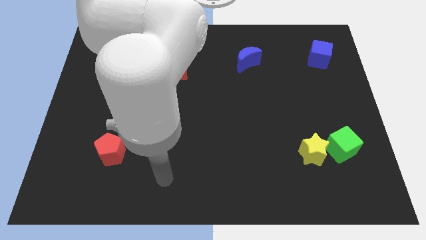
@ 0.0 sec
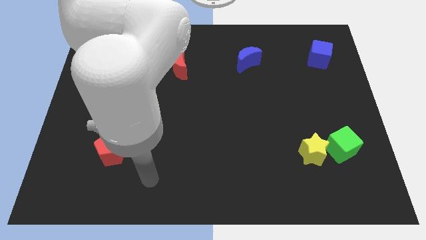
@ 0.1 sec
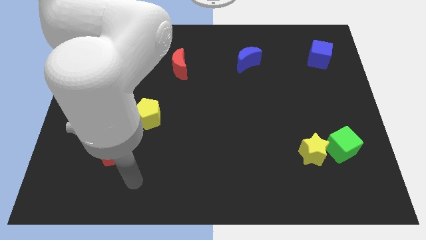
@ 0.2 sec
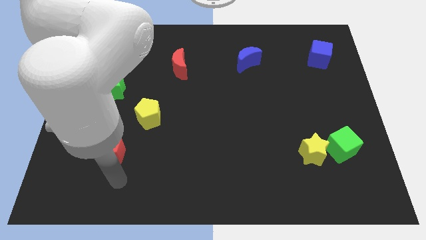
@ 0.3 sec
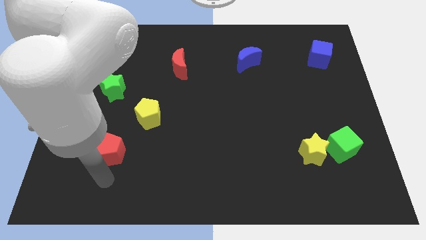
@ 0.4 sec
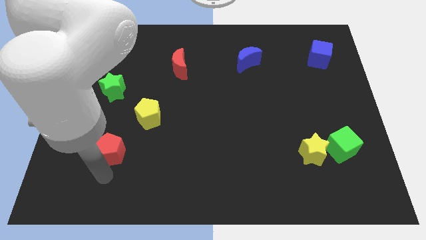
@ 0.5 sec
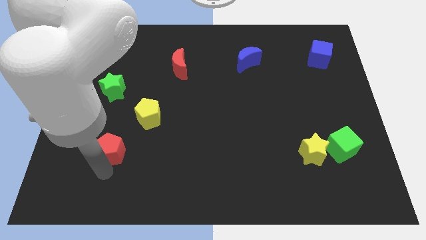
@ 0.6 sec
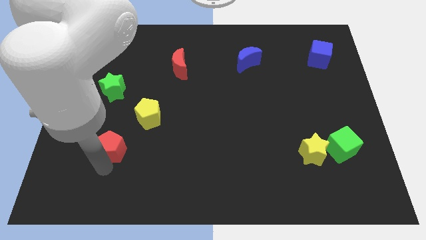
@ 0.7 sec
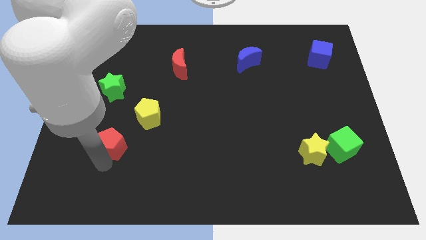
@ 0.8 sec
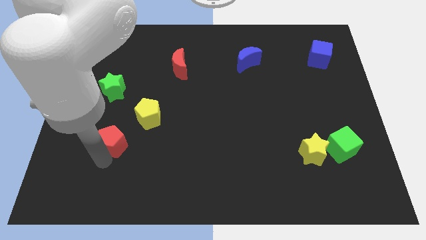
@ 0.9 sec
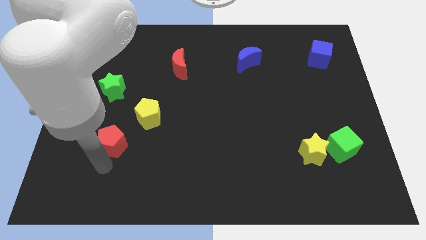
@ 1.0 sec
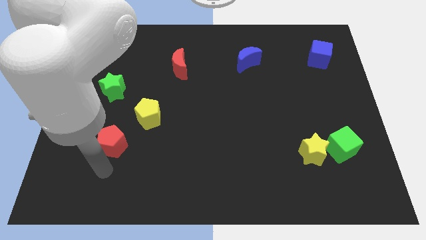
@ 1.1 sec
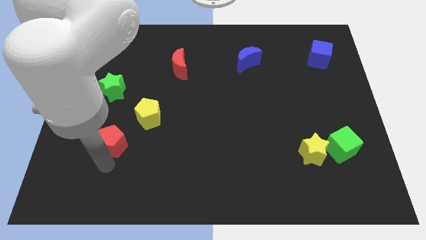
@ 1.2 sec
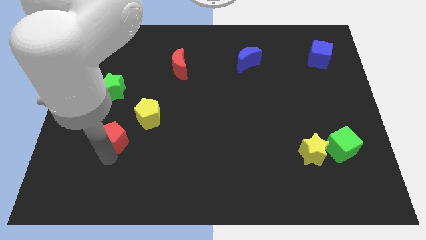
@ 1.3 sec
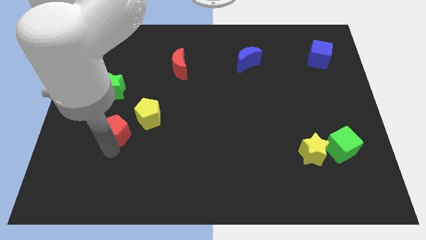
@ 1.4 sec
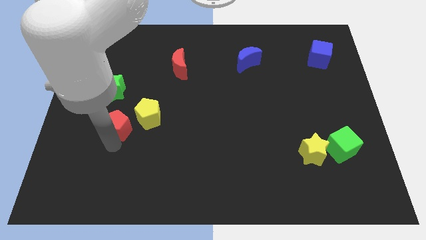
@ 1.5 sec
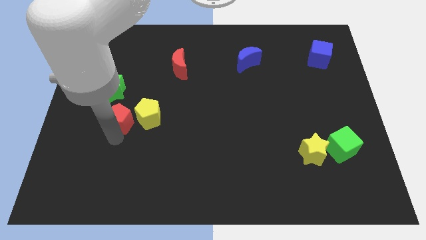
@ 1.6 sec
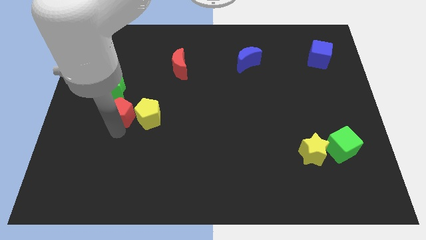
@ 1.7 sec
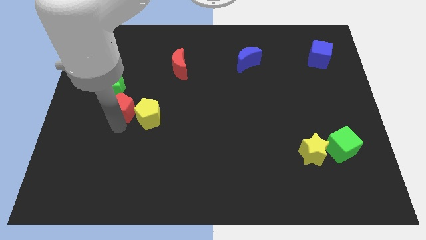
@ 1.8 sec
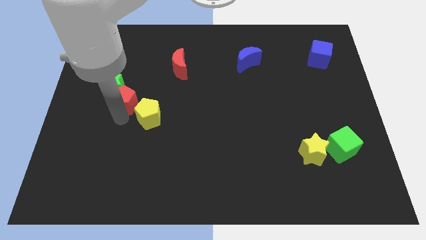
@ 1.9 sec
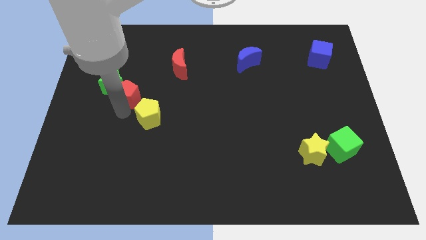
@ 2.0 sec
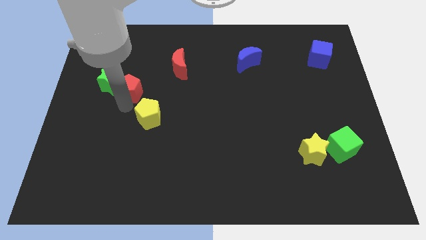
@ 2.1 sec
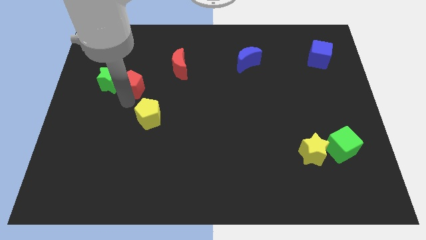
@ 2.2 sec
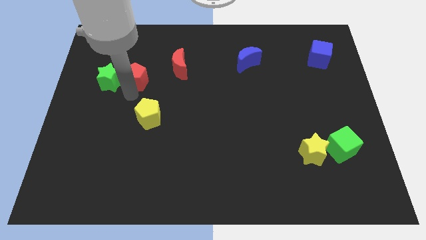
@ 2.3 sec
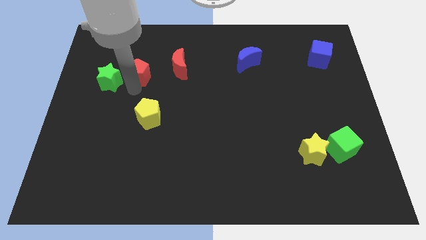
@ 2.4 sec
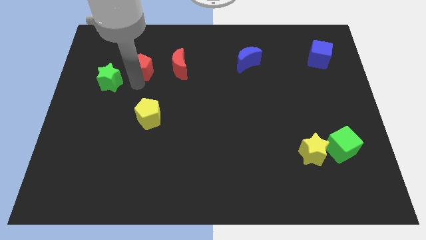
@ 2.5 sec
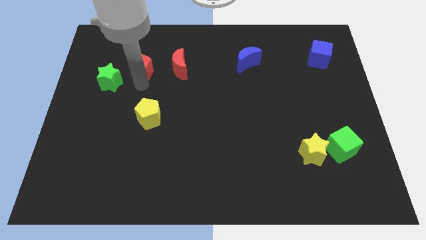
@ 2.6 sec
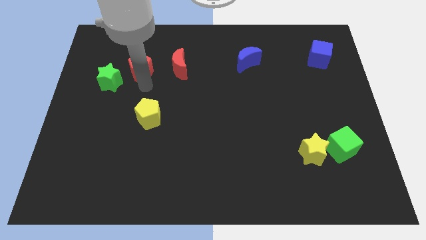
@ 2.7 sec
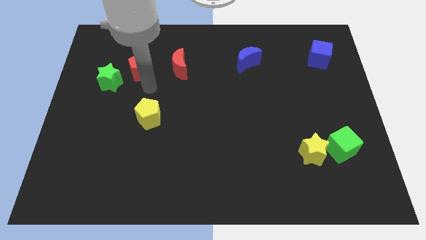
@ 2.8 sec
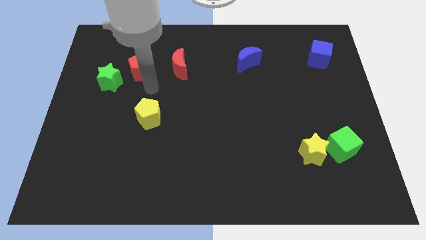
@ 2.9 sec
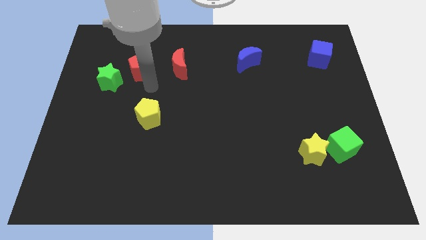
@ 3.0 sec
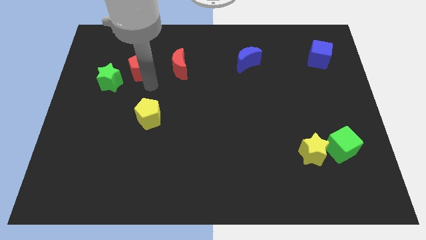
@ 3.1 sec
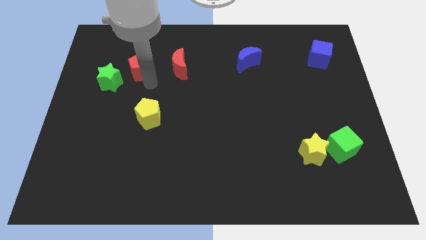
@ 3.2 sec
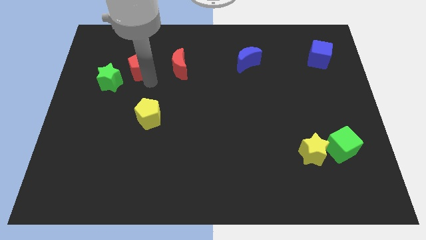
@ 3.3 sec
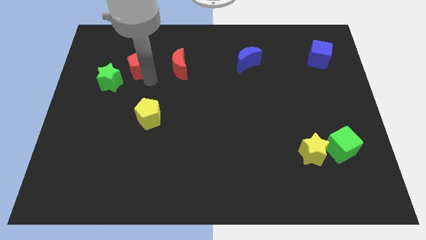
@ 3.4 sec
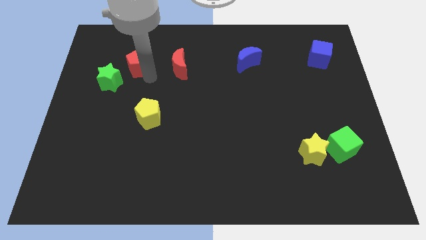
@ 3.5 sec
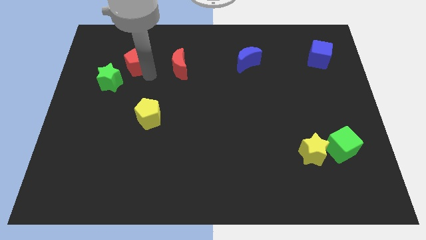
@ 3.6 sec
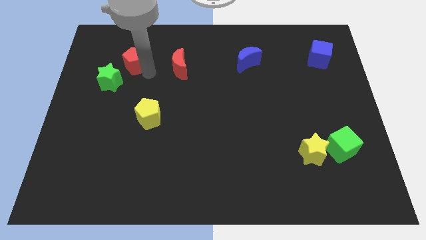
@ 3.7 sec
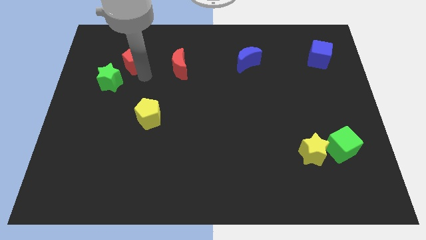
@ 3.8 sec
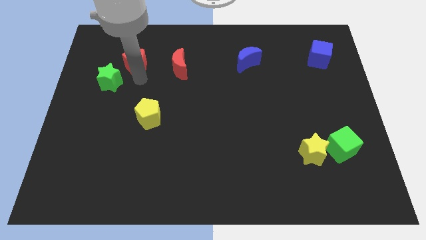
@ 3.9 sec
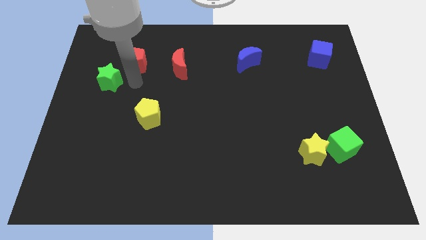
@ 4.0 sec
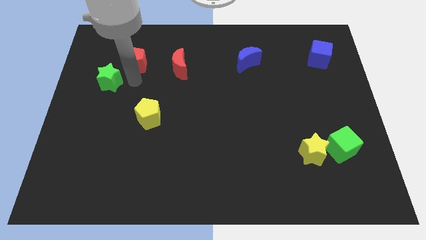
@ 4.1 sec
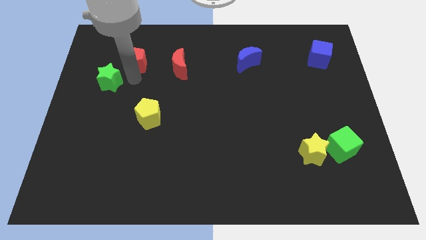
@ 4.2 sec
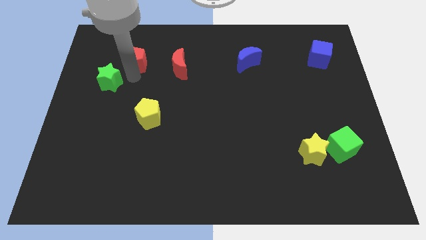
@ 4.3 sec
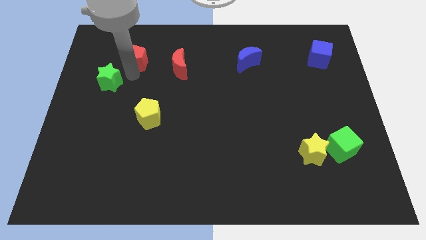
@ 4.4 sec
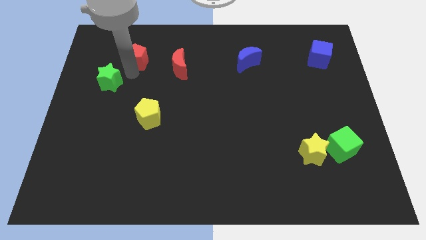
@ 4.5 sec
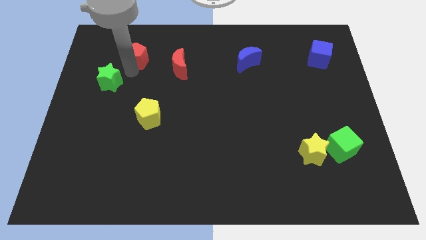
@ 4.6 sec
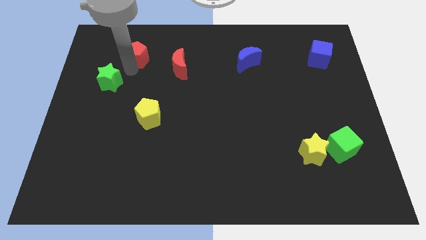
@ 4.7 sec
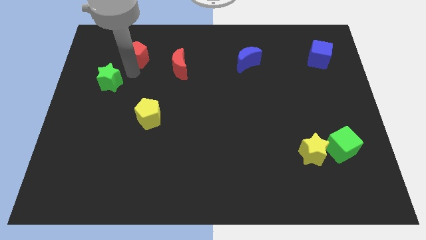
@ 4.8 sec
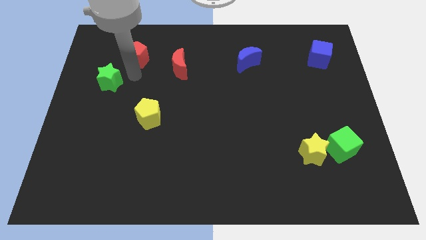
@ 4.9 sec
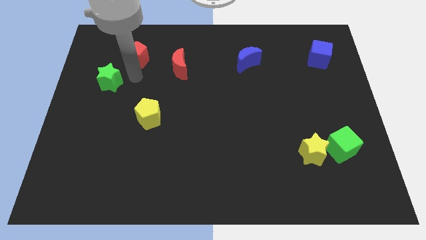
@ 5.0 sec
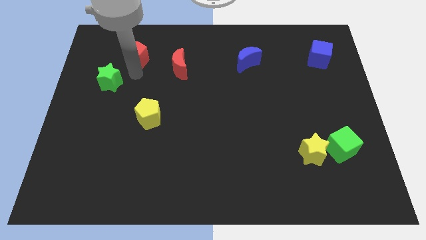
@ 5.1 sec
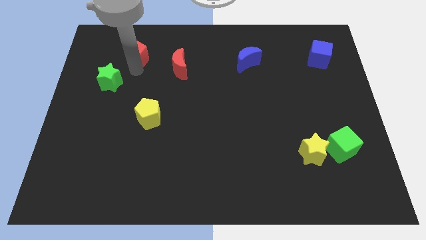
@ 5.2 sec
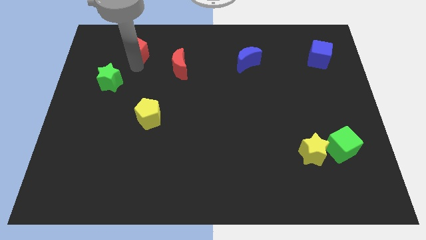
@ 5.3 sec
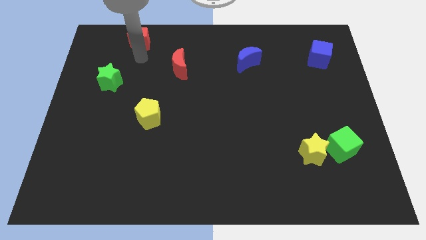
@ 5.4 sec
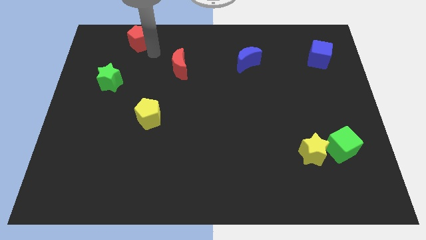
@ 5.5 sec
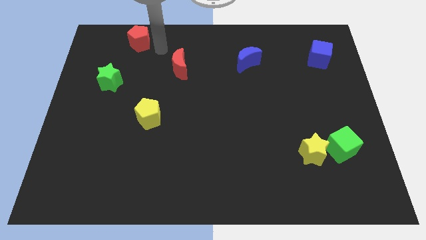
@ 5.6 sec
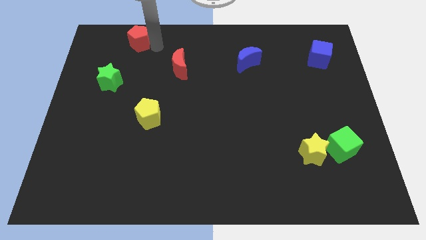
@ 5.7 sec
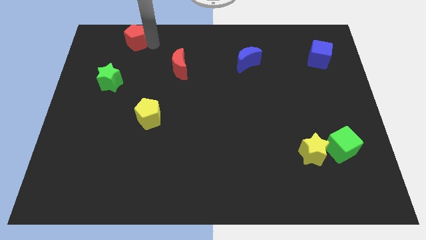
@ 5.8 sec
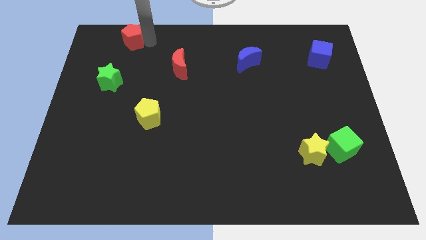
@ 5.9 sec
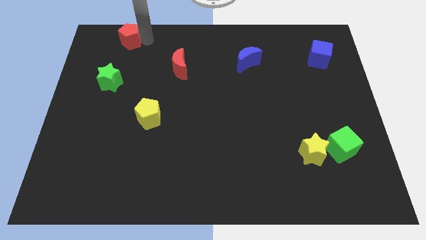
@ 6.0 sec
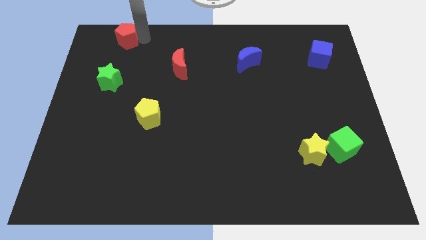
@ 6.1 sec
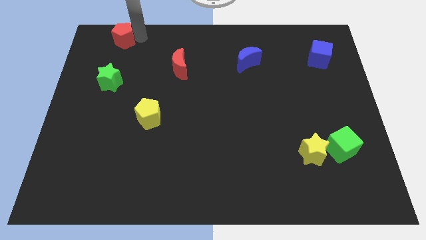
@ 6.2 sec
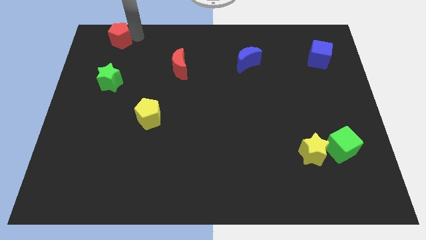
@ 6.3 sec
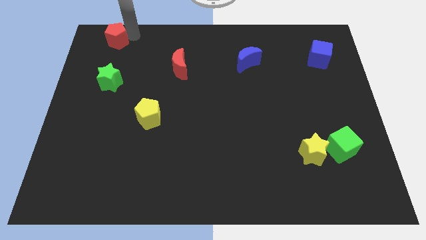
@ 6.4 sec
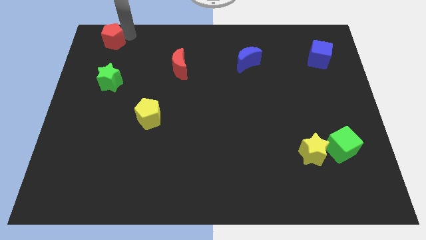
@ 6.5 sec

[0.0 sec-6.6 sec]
slide the red pentagon to the top left corner
